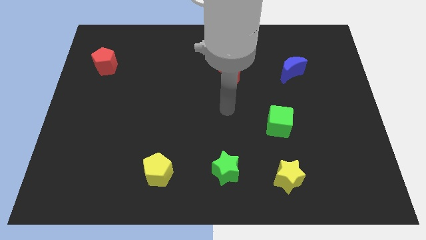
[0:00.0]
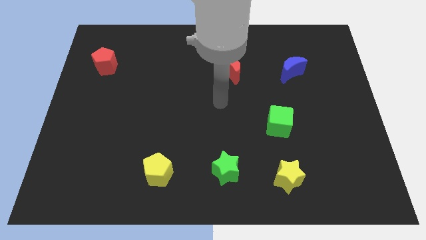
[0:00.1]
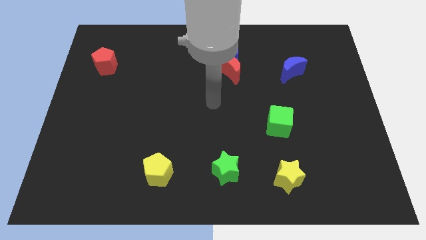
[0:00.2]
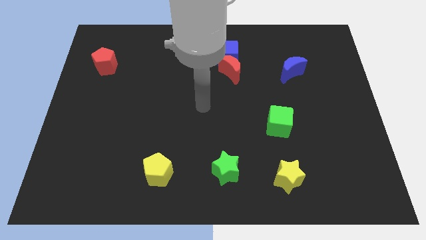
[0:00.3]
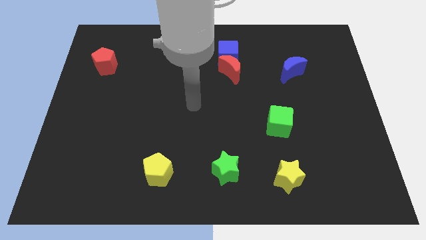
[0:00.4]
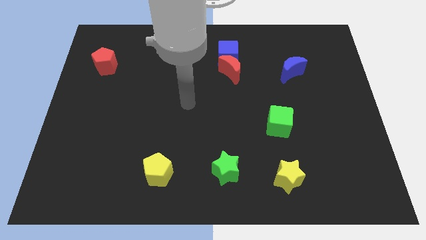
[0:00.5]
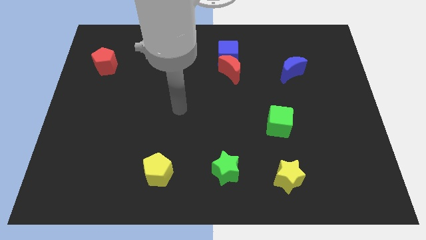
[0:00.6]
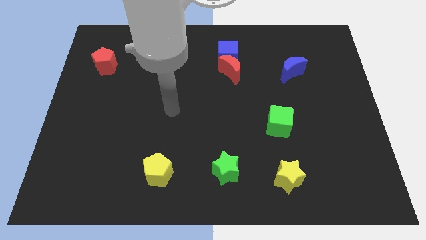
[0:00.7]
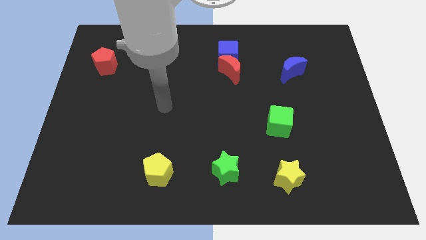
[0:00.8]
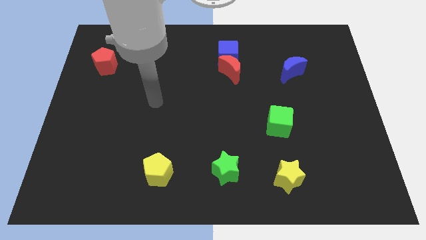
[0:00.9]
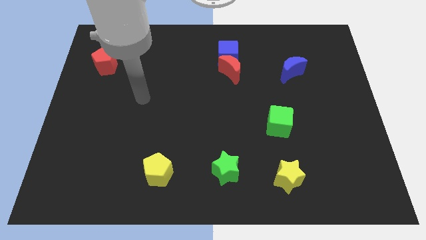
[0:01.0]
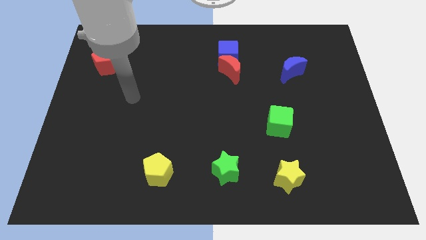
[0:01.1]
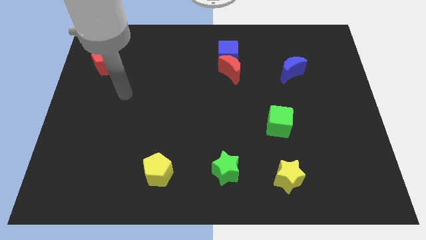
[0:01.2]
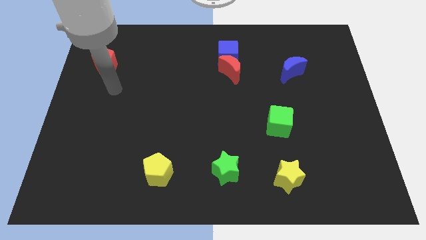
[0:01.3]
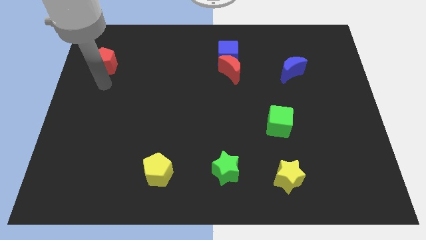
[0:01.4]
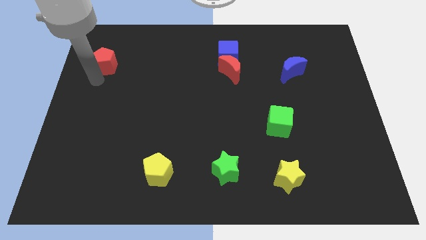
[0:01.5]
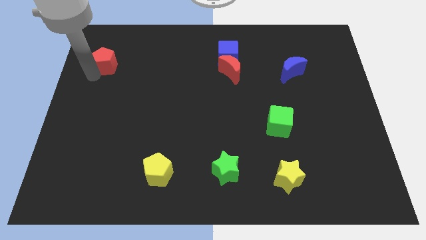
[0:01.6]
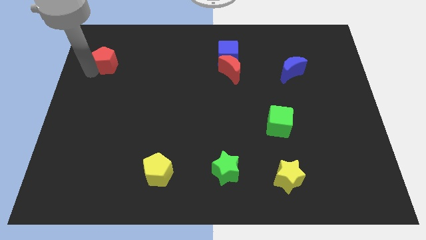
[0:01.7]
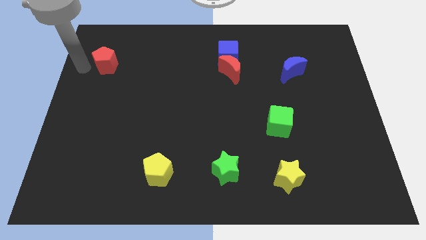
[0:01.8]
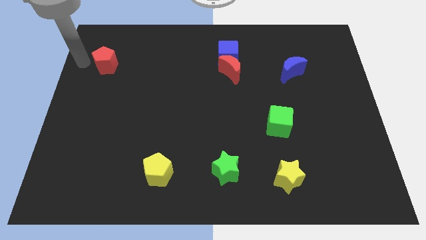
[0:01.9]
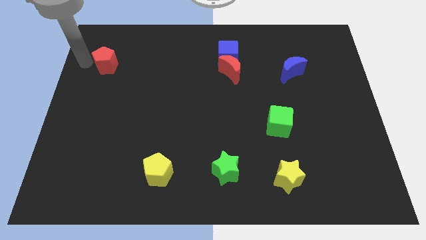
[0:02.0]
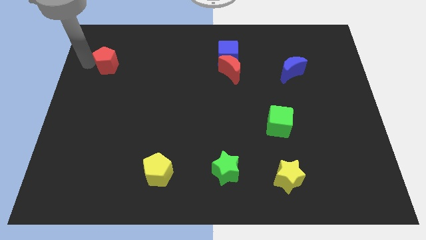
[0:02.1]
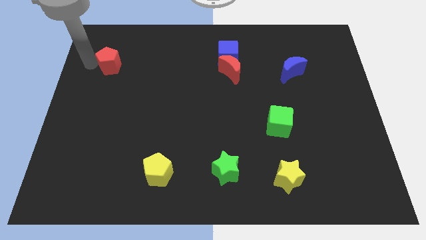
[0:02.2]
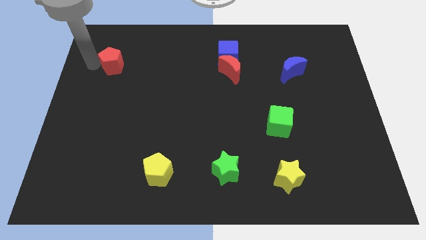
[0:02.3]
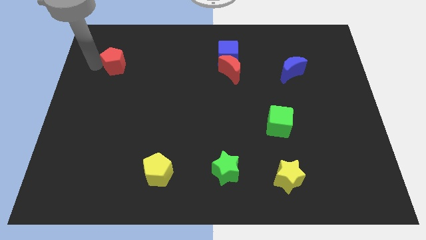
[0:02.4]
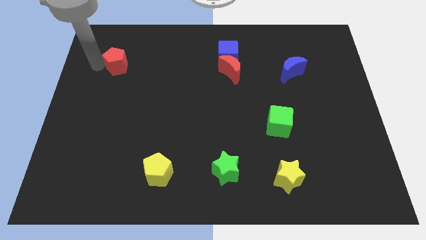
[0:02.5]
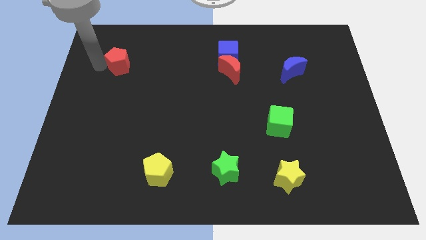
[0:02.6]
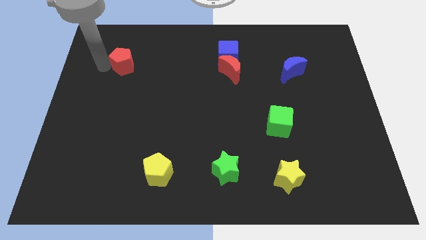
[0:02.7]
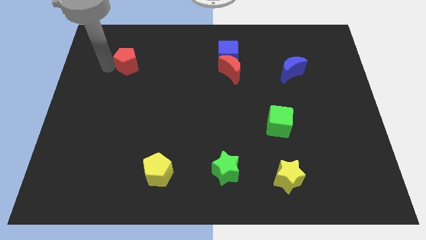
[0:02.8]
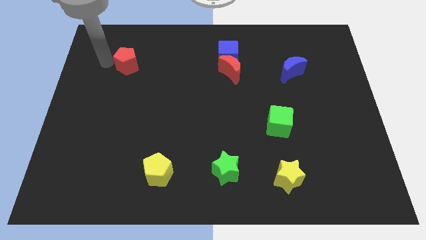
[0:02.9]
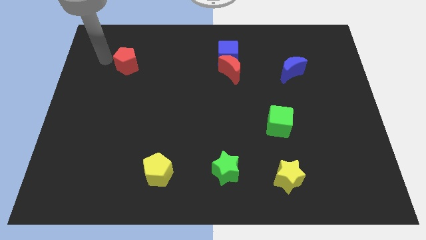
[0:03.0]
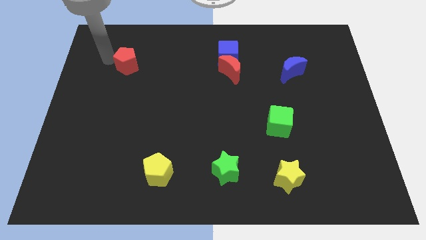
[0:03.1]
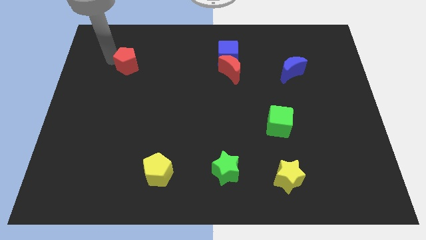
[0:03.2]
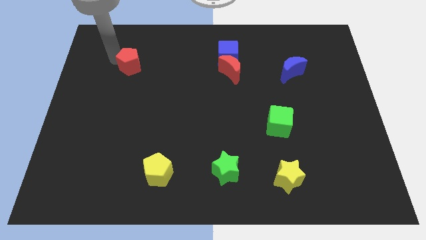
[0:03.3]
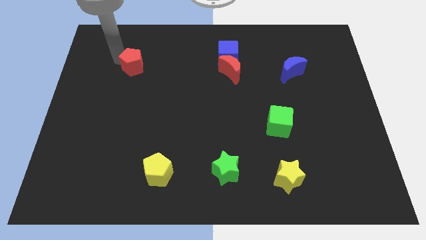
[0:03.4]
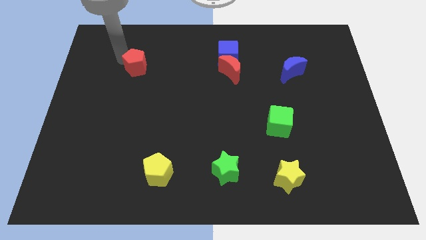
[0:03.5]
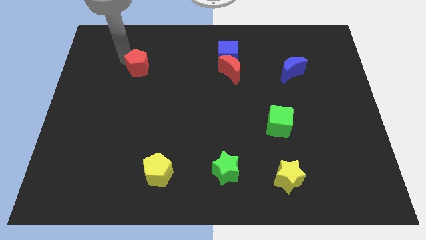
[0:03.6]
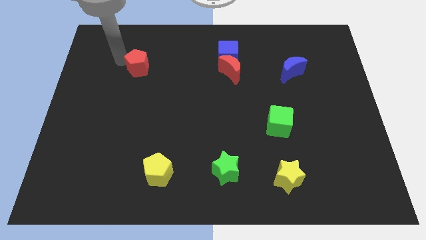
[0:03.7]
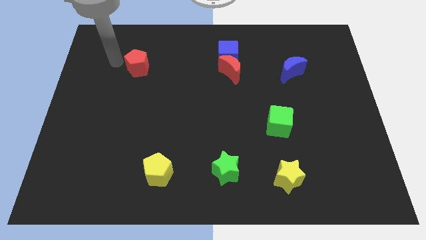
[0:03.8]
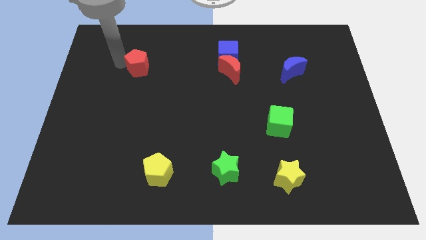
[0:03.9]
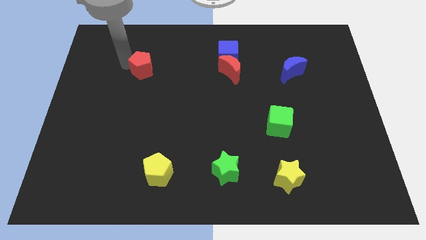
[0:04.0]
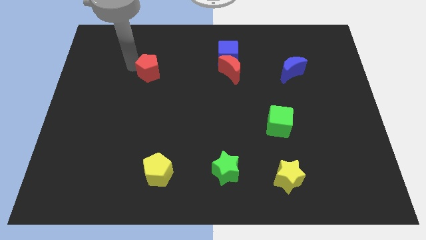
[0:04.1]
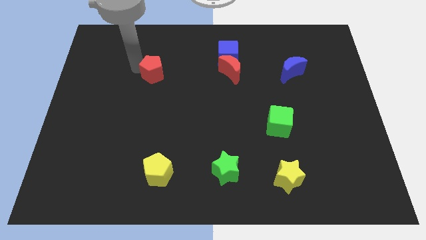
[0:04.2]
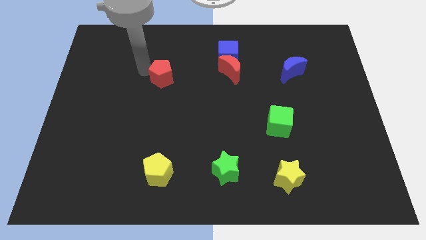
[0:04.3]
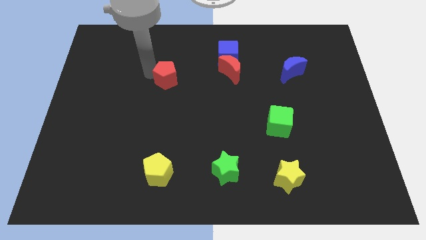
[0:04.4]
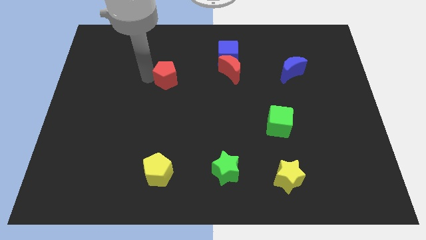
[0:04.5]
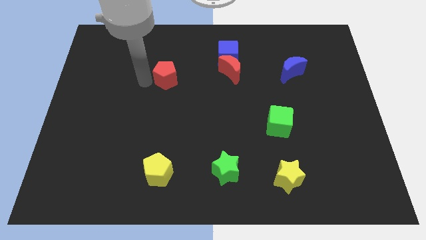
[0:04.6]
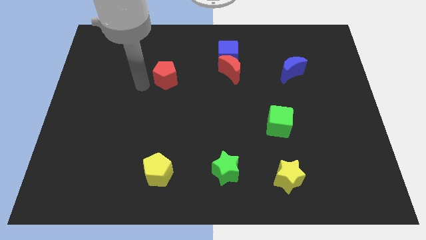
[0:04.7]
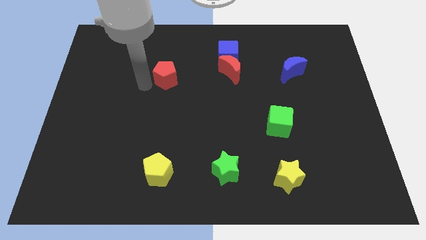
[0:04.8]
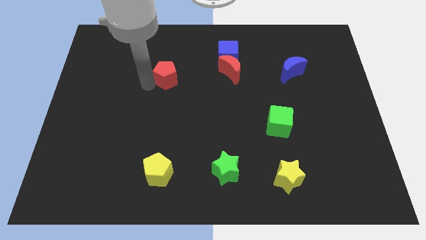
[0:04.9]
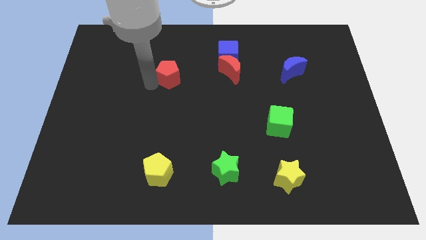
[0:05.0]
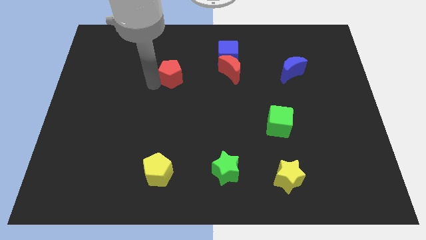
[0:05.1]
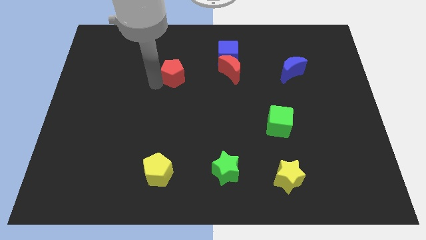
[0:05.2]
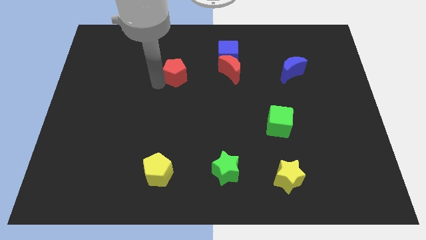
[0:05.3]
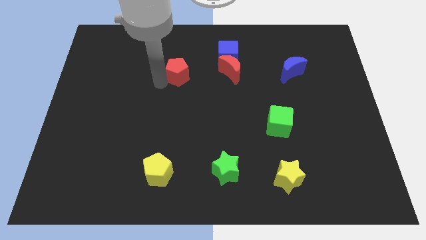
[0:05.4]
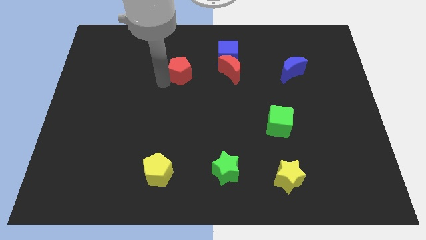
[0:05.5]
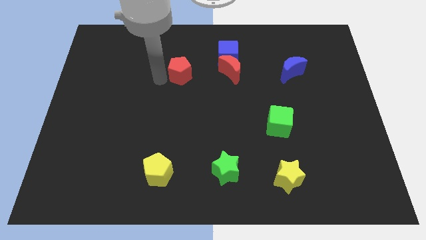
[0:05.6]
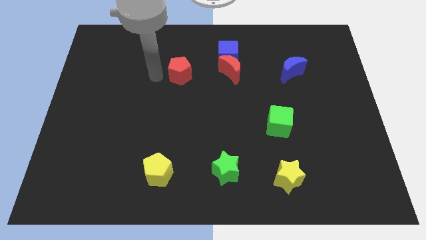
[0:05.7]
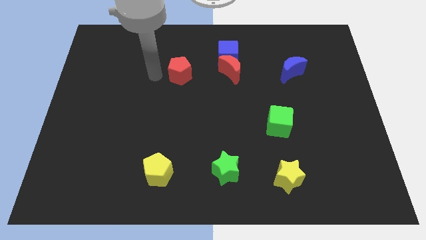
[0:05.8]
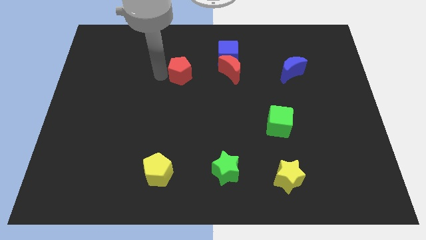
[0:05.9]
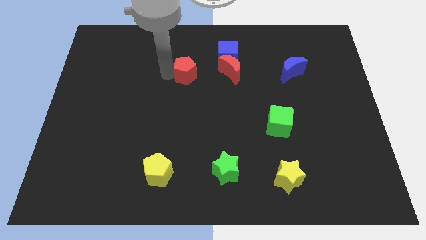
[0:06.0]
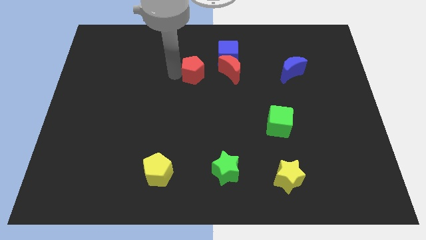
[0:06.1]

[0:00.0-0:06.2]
push the red pentagon to the bottom left side of the blue cube

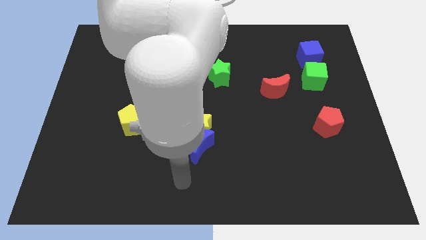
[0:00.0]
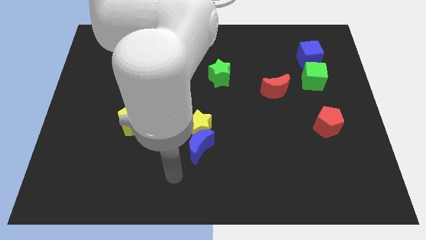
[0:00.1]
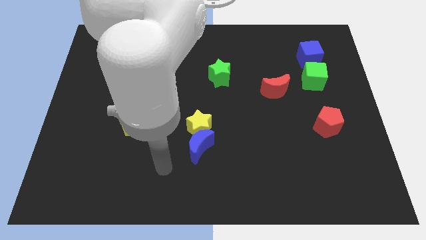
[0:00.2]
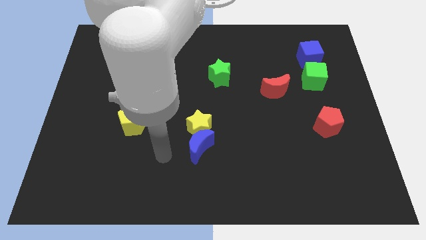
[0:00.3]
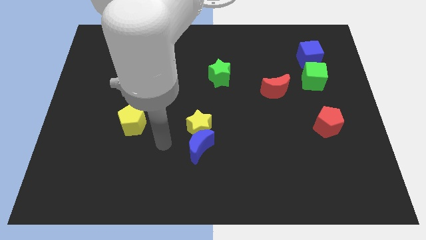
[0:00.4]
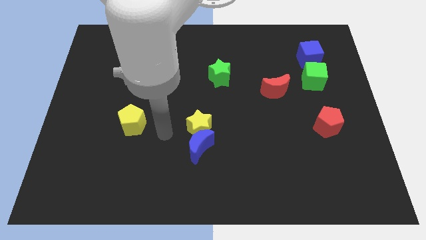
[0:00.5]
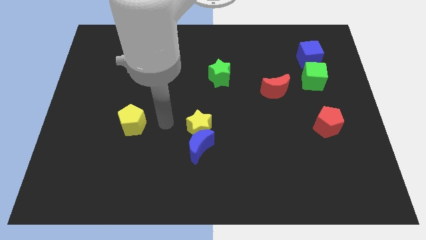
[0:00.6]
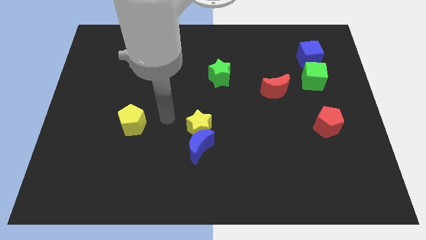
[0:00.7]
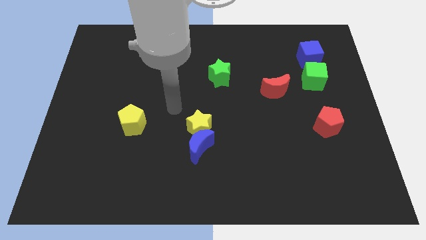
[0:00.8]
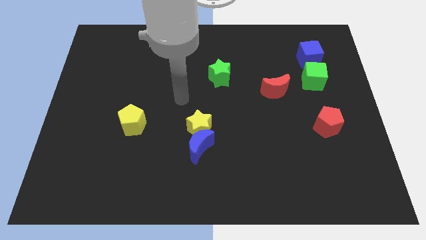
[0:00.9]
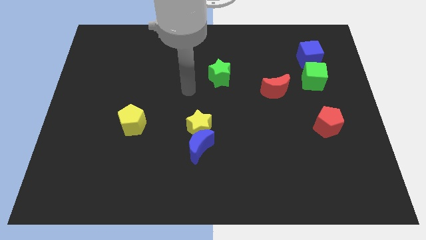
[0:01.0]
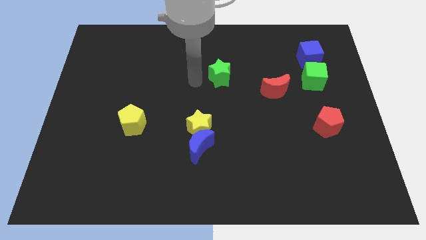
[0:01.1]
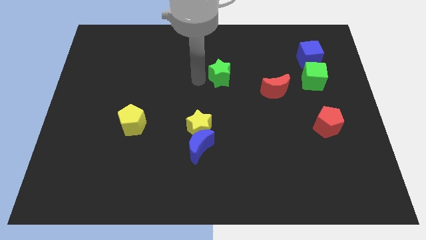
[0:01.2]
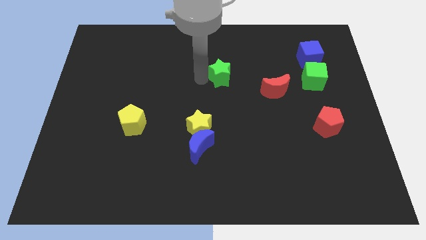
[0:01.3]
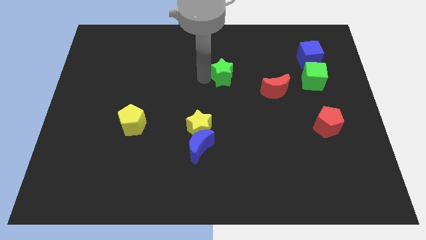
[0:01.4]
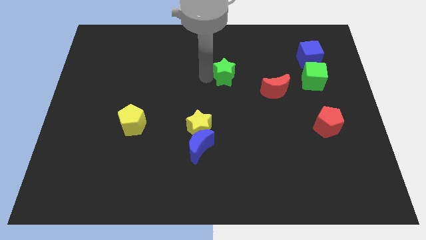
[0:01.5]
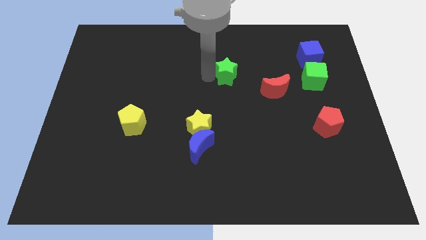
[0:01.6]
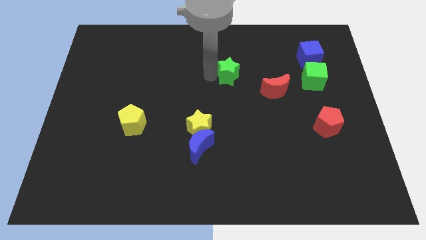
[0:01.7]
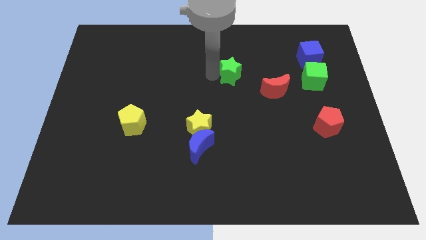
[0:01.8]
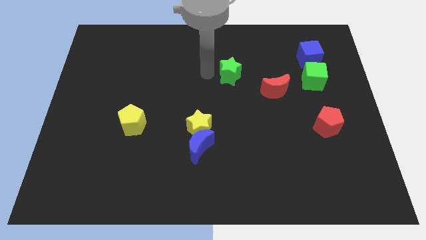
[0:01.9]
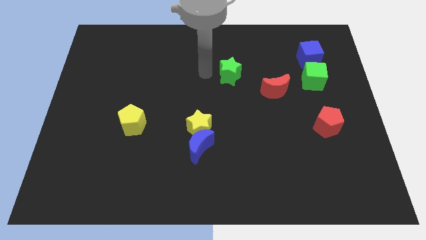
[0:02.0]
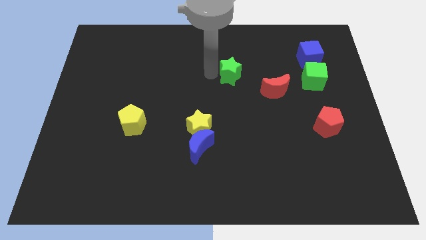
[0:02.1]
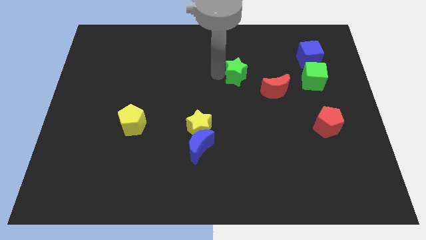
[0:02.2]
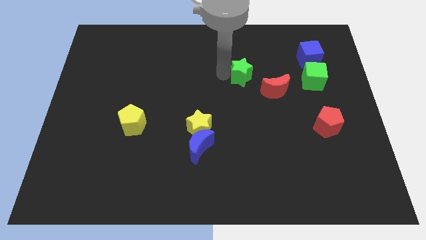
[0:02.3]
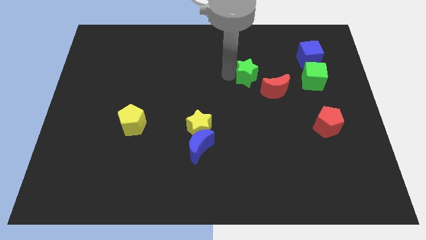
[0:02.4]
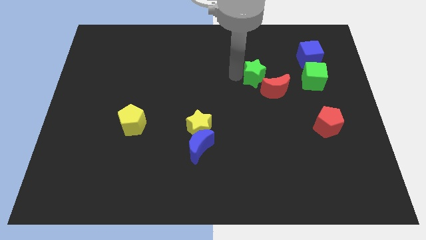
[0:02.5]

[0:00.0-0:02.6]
put the green star just left of the green cube
